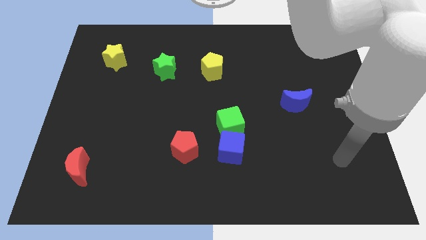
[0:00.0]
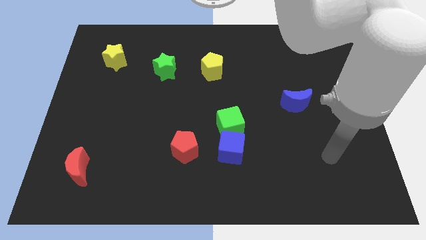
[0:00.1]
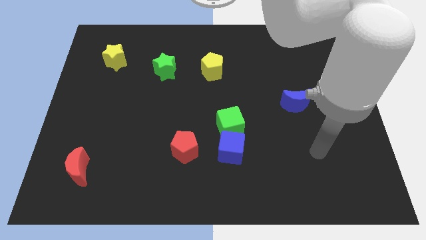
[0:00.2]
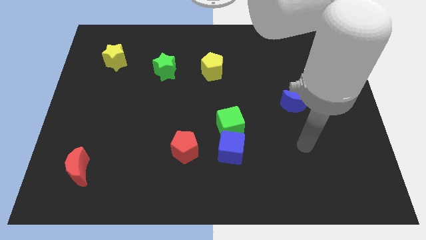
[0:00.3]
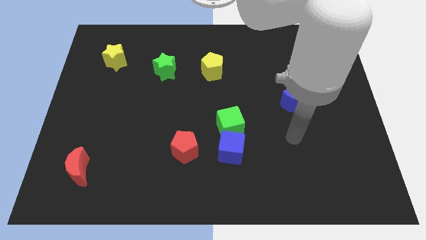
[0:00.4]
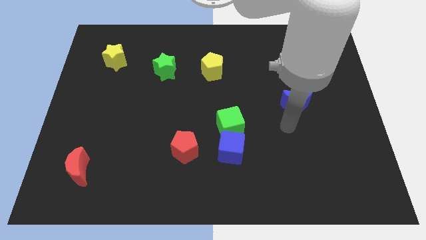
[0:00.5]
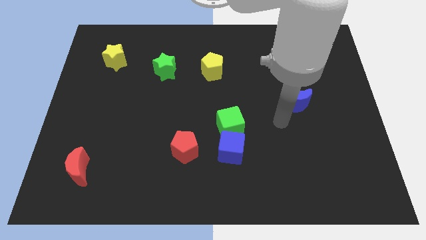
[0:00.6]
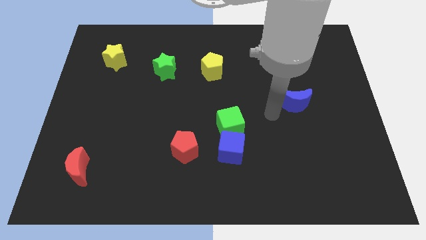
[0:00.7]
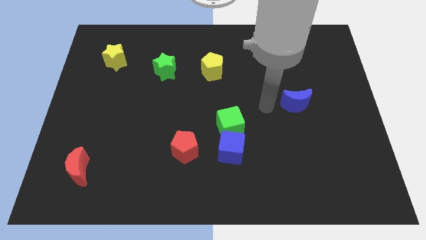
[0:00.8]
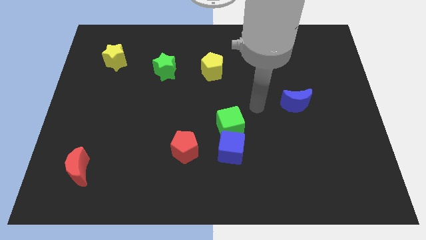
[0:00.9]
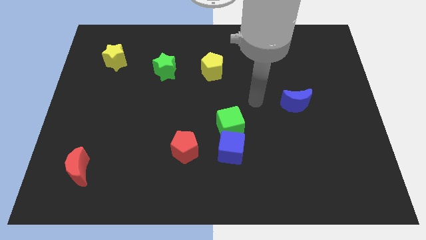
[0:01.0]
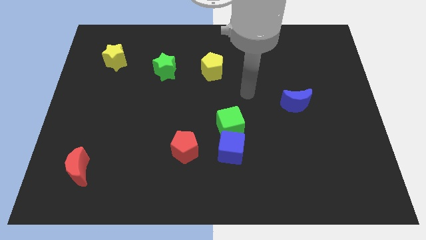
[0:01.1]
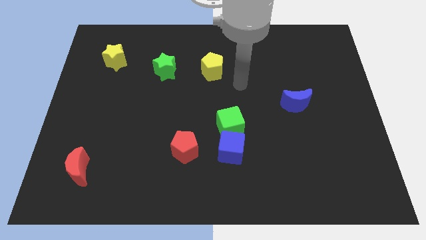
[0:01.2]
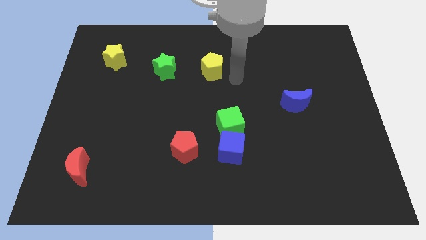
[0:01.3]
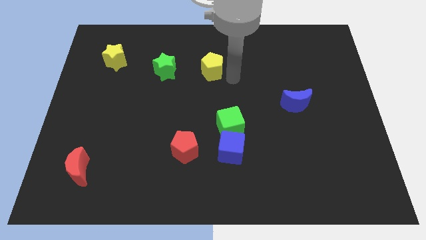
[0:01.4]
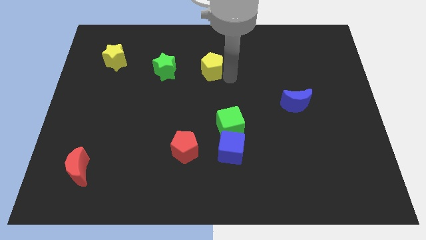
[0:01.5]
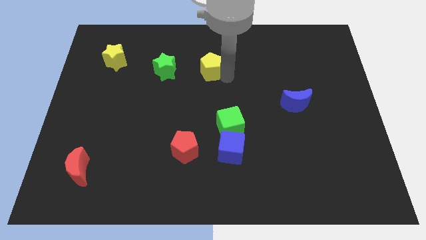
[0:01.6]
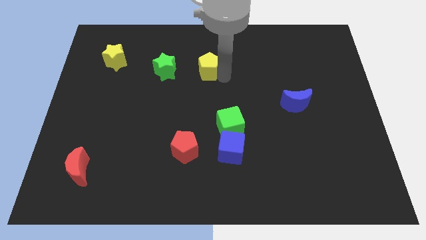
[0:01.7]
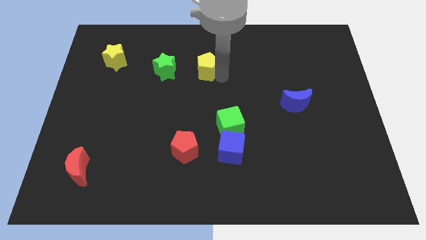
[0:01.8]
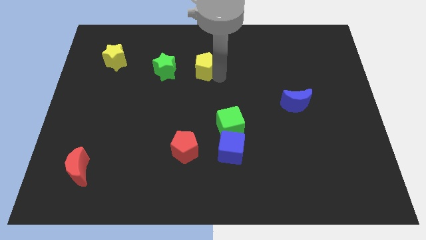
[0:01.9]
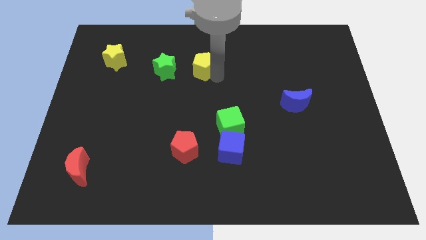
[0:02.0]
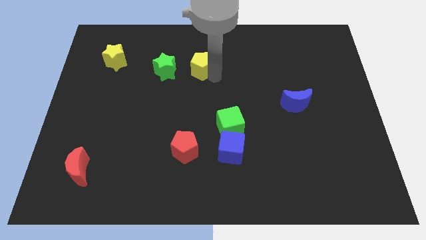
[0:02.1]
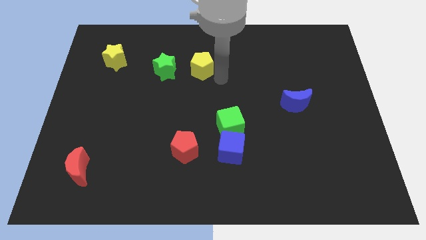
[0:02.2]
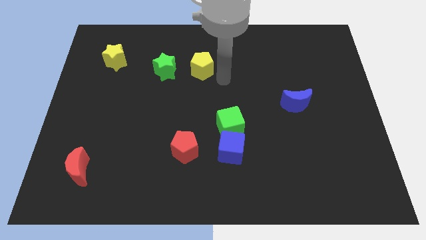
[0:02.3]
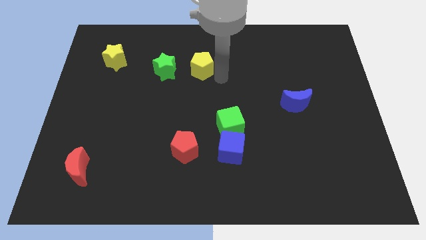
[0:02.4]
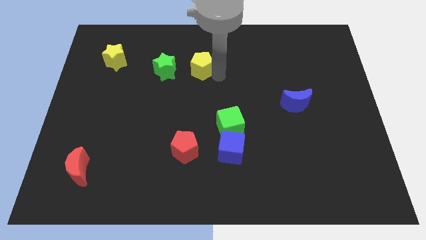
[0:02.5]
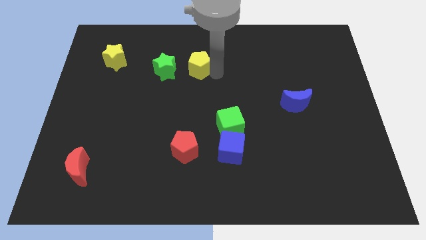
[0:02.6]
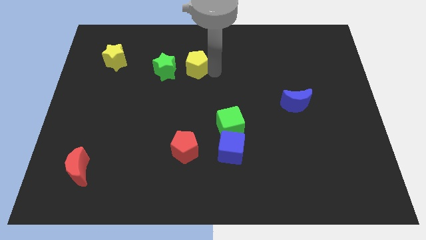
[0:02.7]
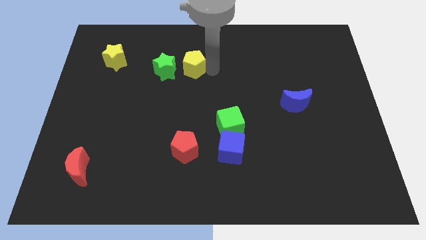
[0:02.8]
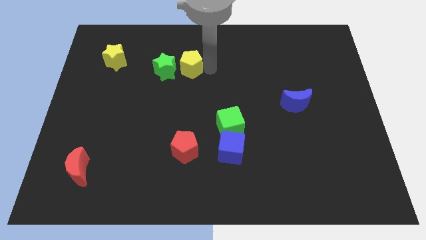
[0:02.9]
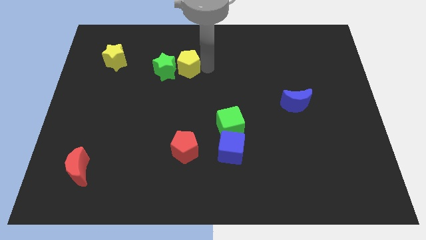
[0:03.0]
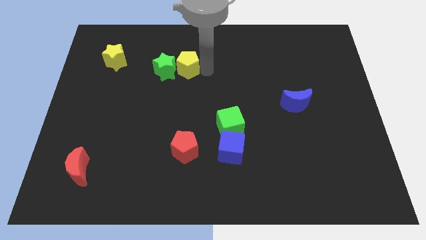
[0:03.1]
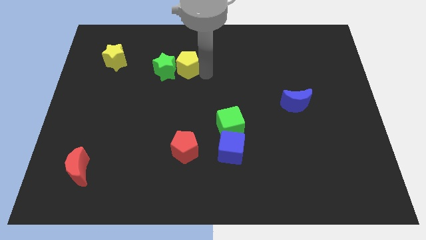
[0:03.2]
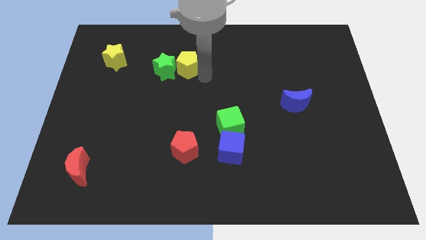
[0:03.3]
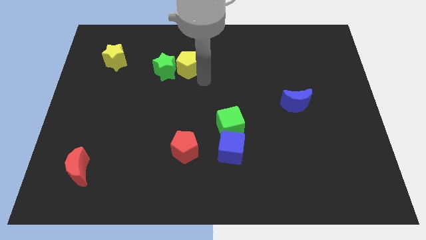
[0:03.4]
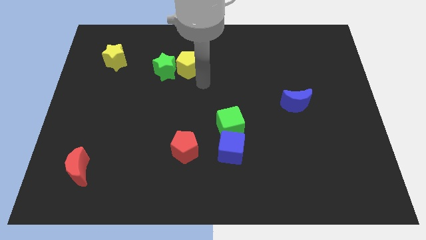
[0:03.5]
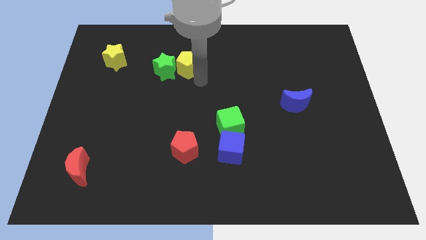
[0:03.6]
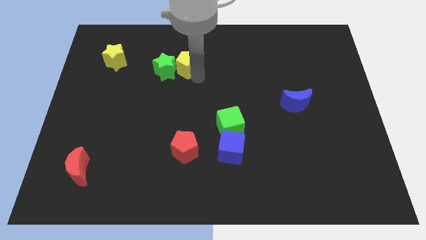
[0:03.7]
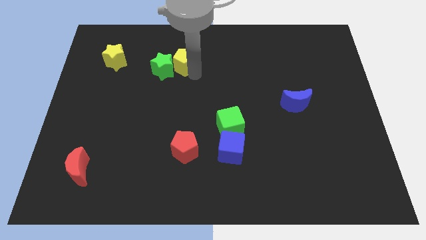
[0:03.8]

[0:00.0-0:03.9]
push the yellow pentagon a bit to the left

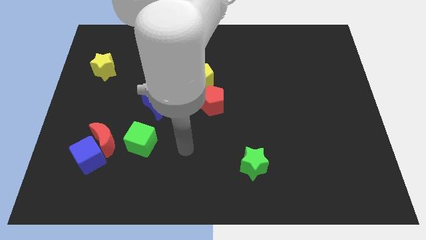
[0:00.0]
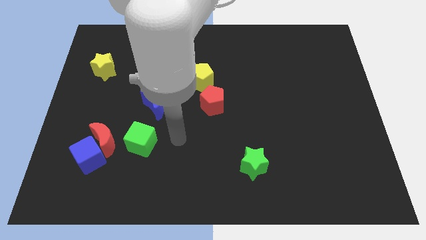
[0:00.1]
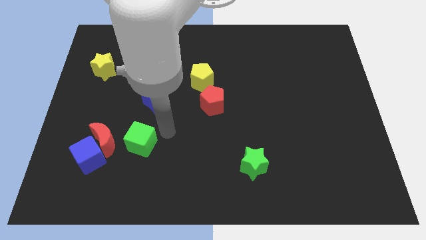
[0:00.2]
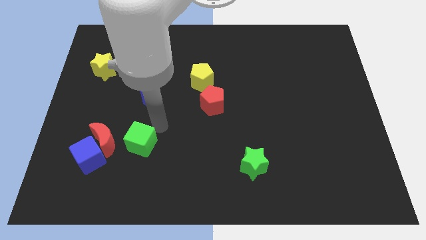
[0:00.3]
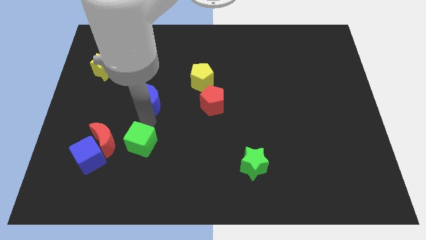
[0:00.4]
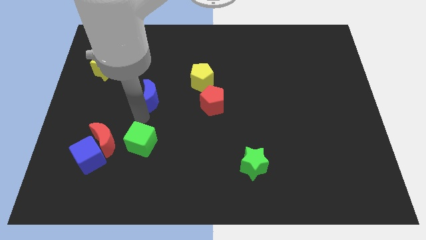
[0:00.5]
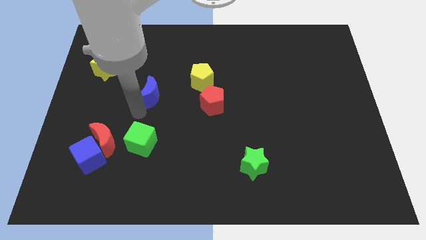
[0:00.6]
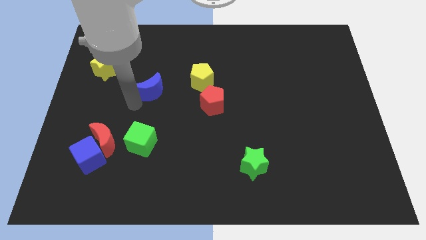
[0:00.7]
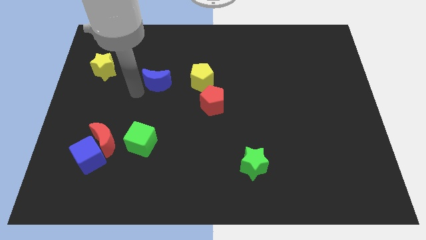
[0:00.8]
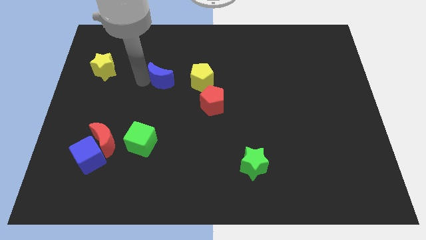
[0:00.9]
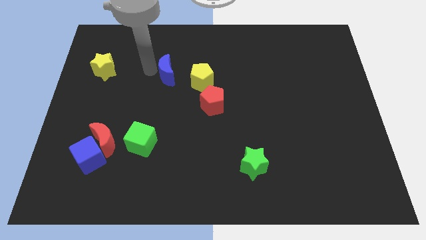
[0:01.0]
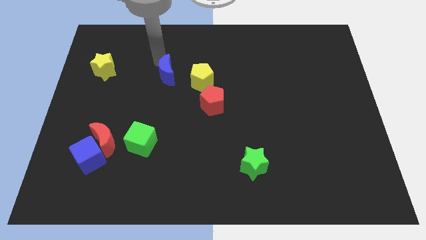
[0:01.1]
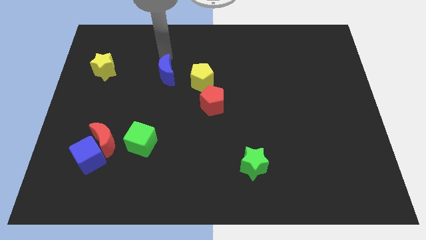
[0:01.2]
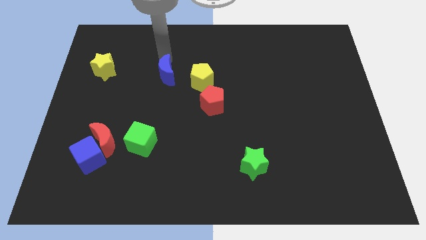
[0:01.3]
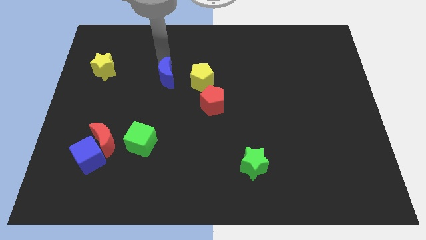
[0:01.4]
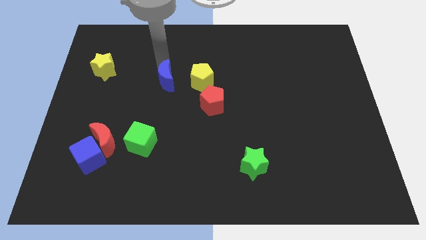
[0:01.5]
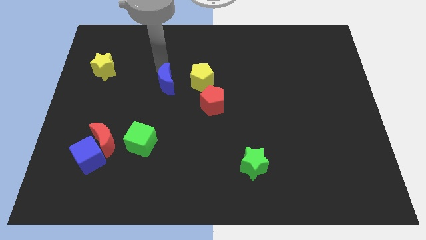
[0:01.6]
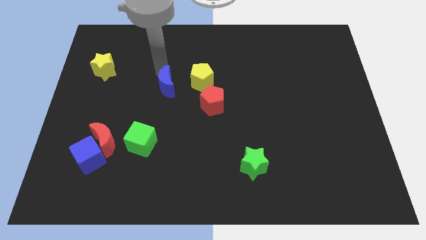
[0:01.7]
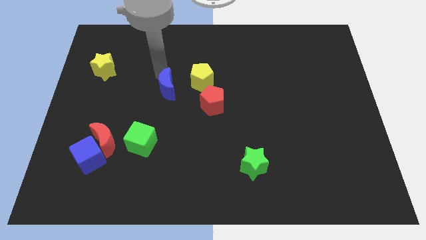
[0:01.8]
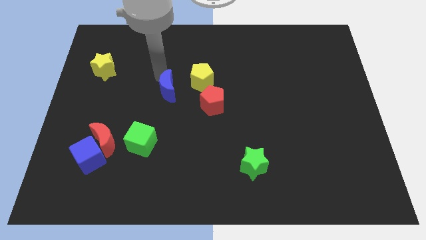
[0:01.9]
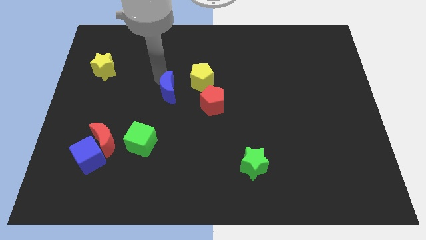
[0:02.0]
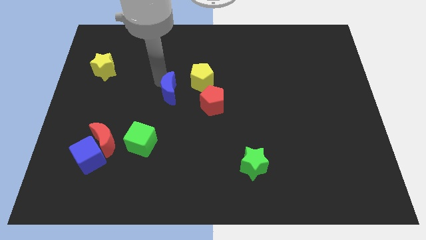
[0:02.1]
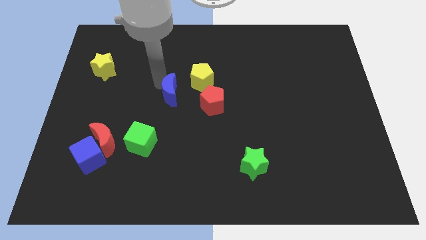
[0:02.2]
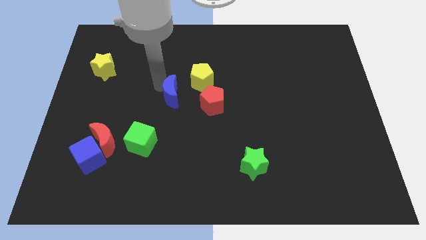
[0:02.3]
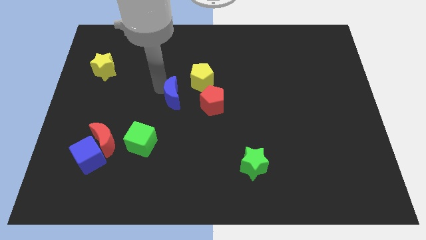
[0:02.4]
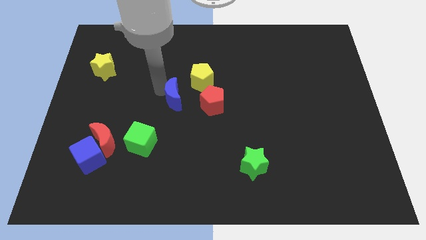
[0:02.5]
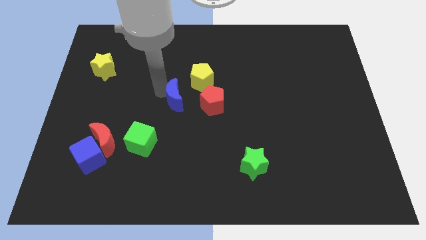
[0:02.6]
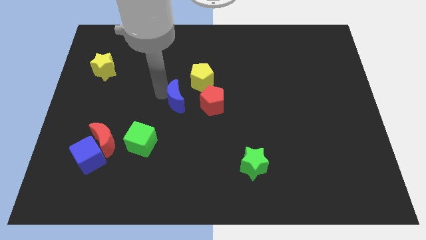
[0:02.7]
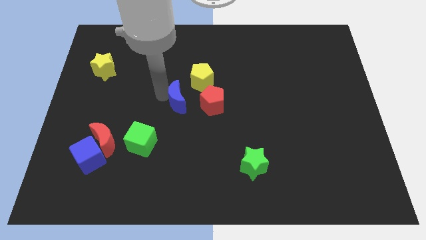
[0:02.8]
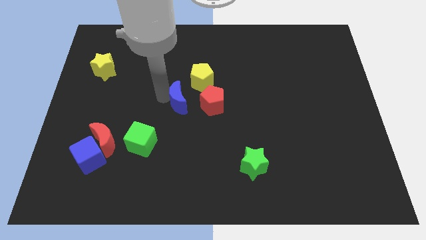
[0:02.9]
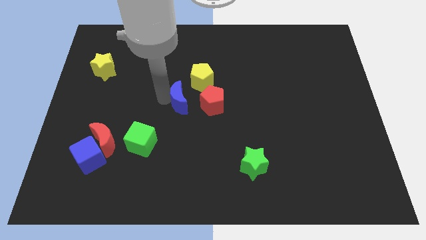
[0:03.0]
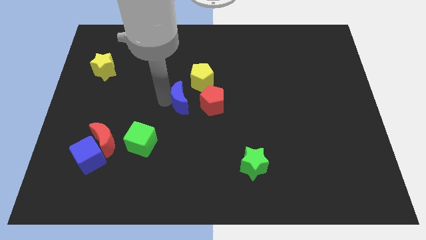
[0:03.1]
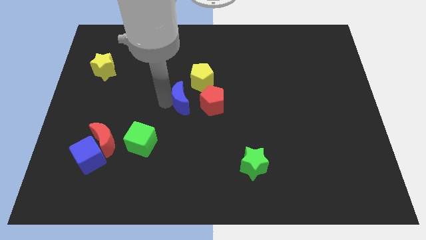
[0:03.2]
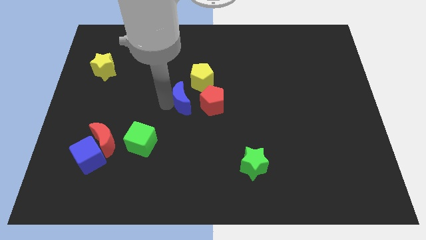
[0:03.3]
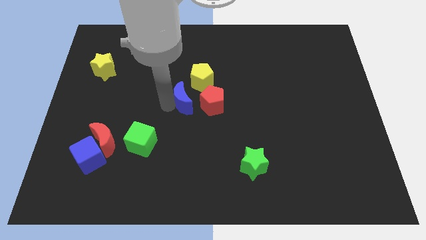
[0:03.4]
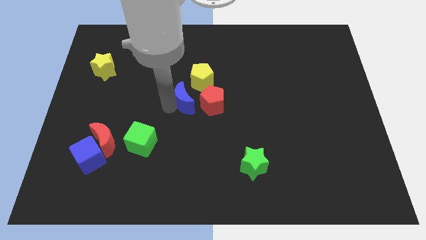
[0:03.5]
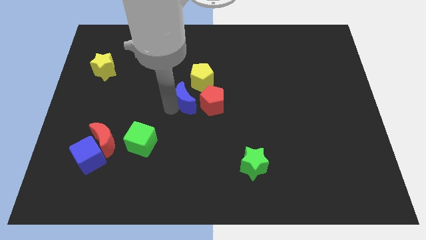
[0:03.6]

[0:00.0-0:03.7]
slightly slide the blue moon to the right
